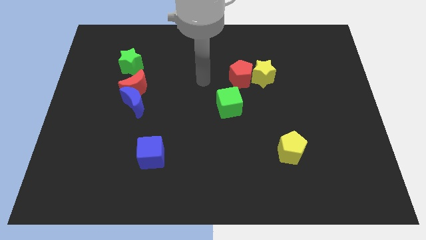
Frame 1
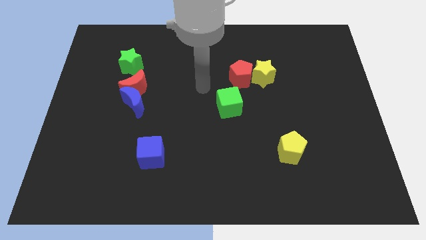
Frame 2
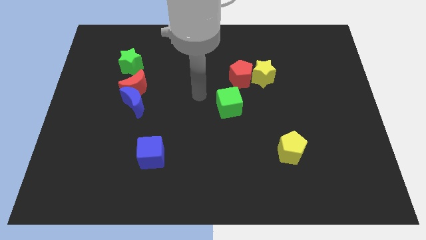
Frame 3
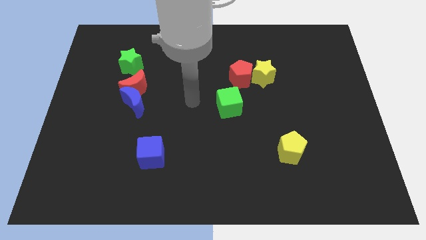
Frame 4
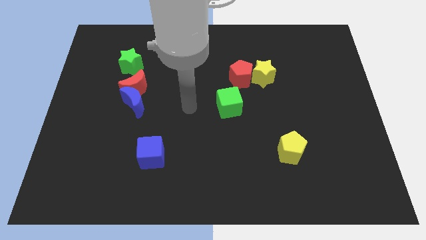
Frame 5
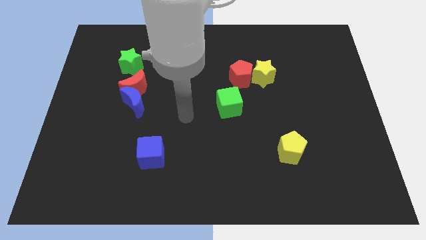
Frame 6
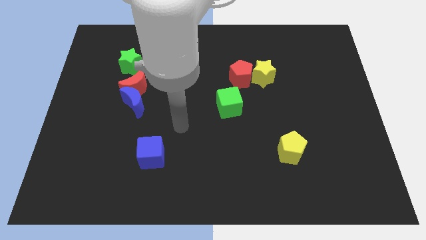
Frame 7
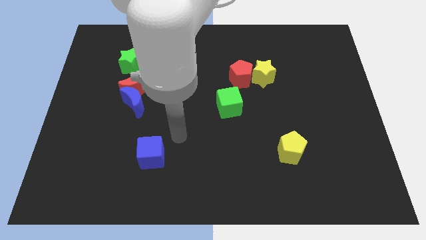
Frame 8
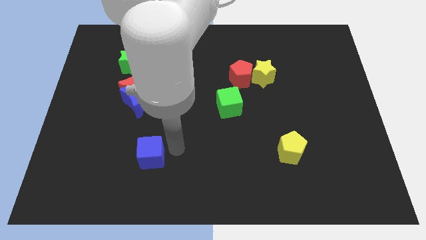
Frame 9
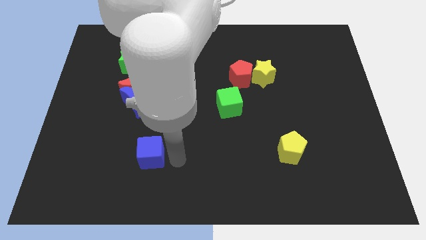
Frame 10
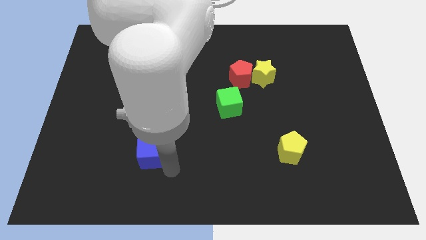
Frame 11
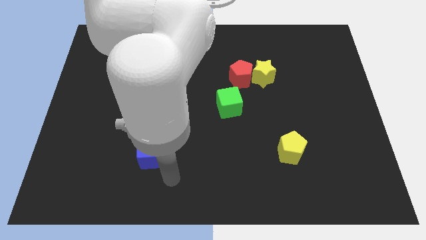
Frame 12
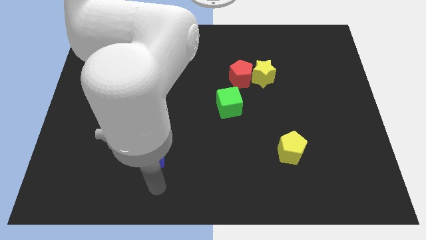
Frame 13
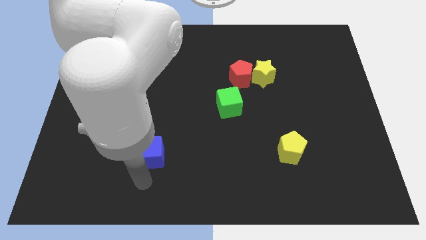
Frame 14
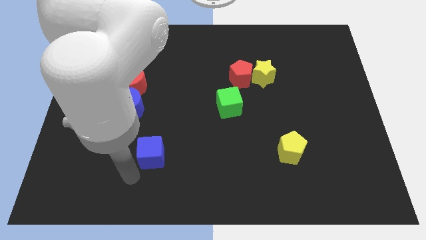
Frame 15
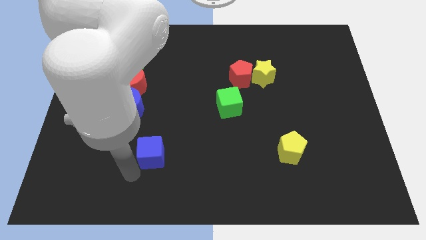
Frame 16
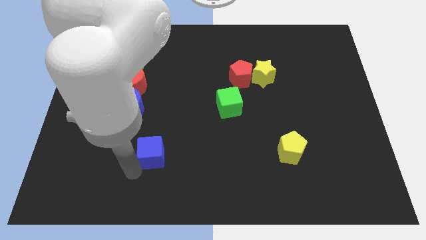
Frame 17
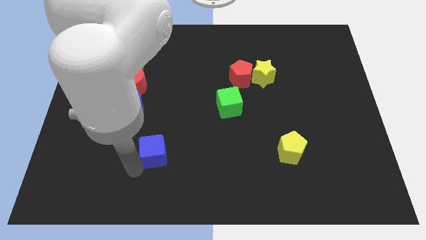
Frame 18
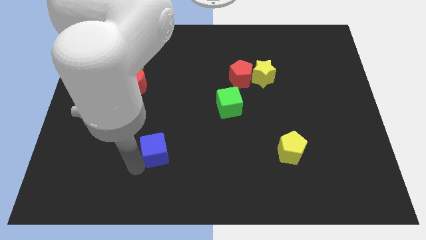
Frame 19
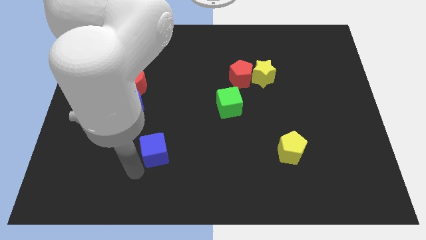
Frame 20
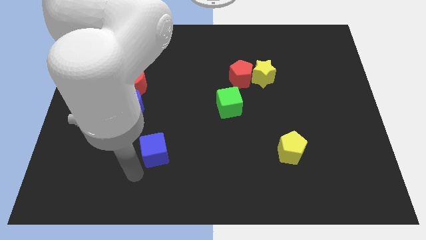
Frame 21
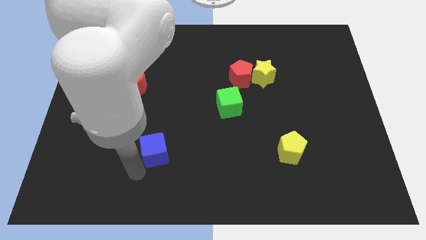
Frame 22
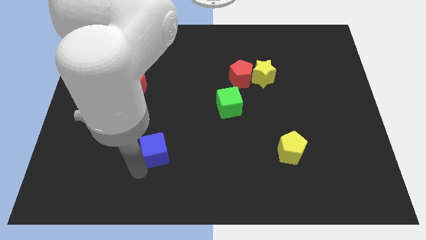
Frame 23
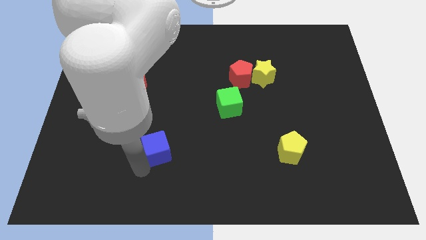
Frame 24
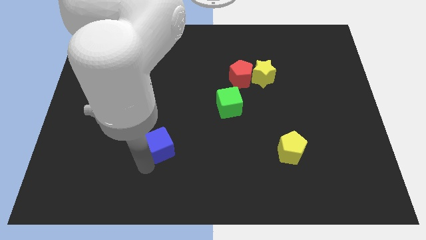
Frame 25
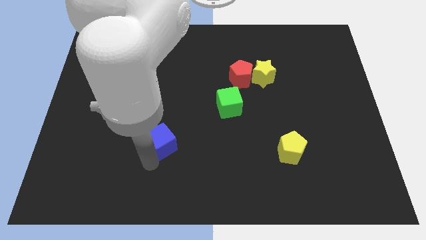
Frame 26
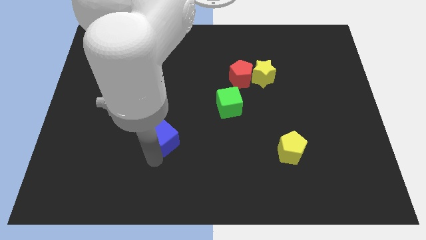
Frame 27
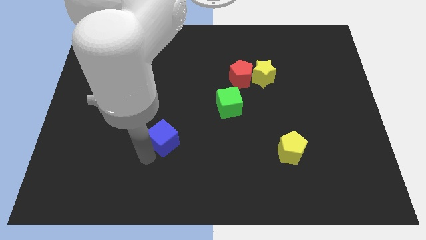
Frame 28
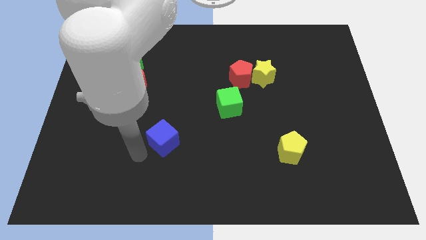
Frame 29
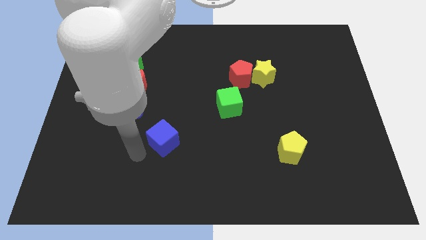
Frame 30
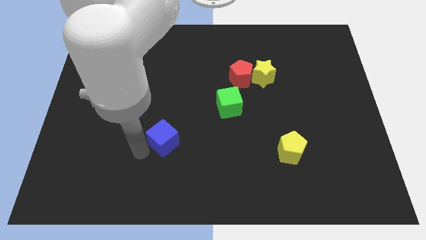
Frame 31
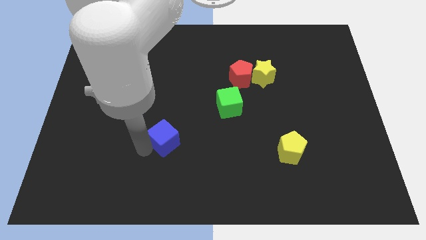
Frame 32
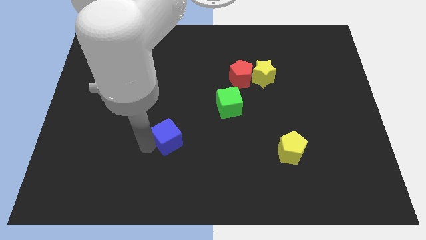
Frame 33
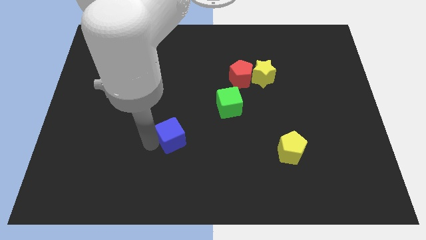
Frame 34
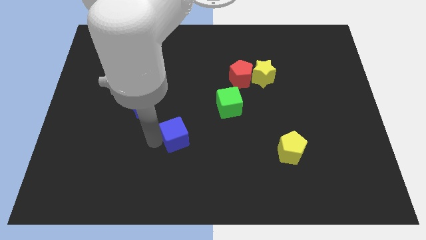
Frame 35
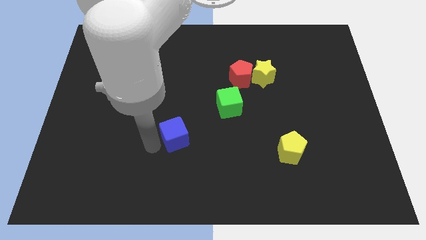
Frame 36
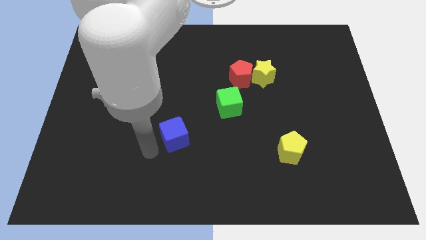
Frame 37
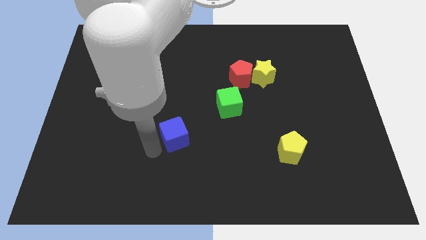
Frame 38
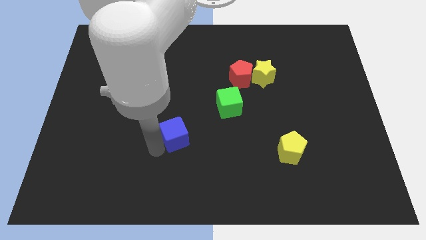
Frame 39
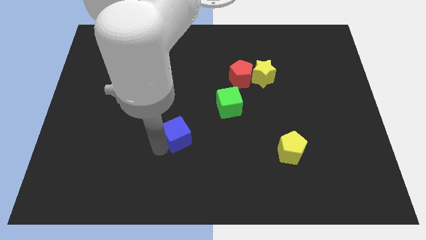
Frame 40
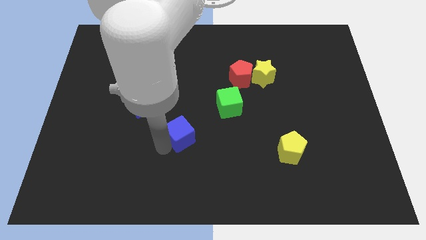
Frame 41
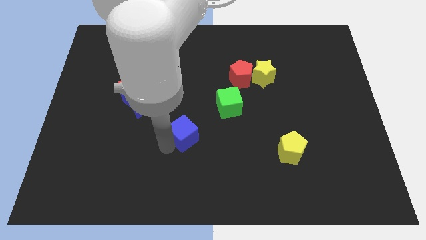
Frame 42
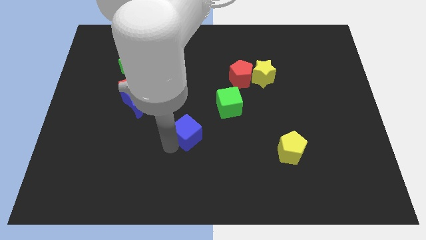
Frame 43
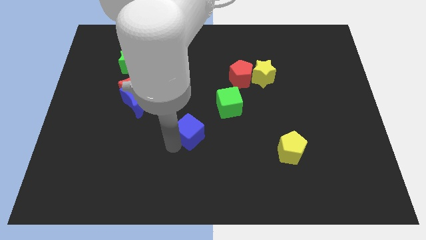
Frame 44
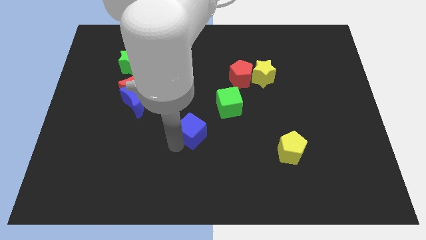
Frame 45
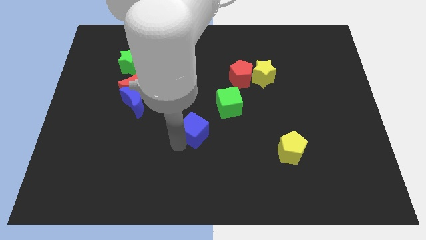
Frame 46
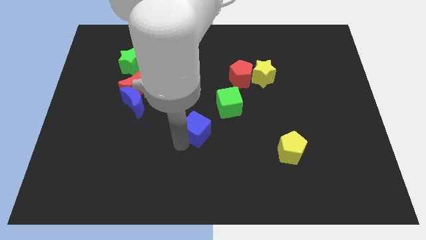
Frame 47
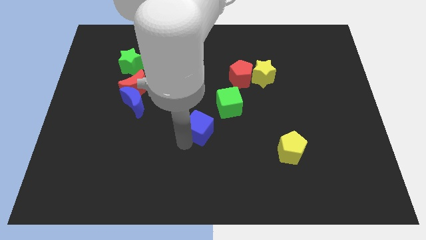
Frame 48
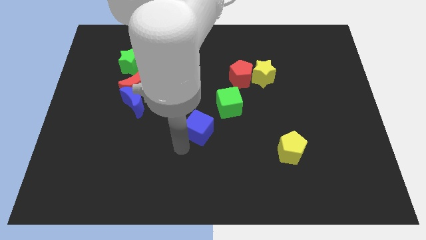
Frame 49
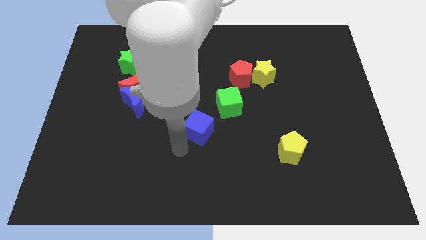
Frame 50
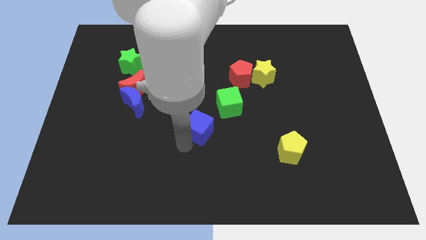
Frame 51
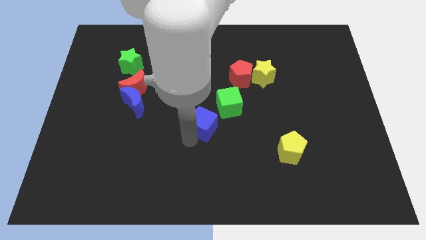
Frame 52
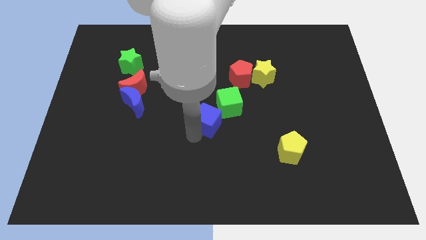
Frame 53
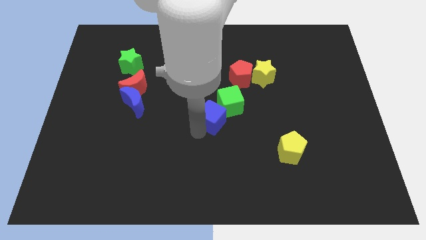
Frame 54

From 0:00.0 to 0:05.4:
move the blue cube next to the green cube

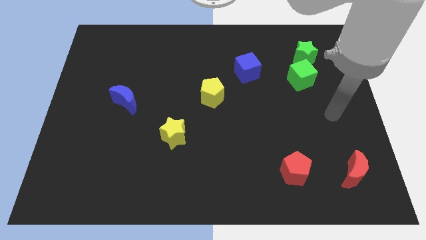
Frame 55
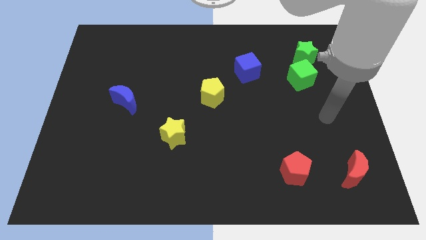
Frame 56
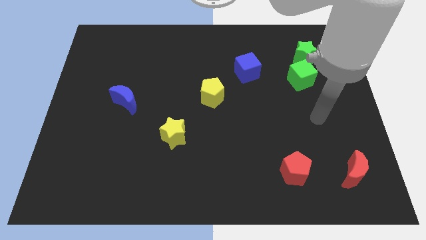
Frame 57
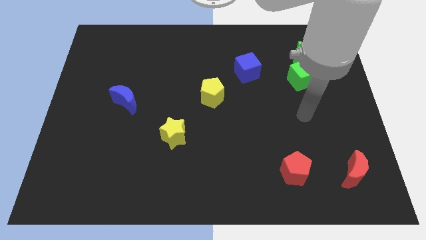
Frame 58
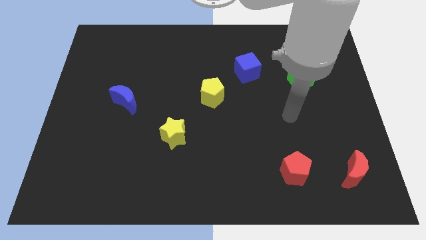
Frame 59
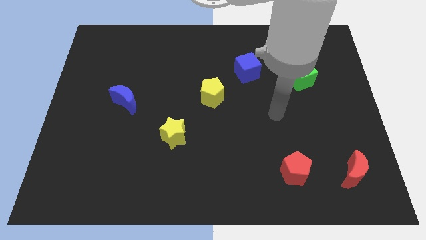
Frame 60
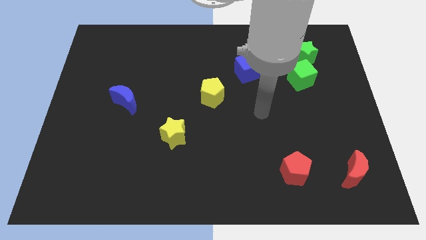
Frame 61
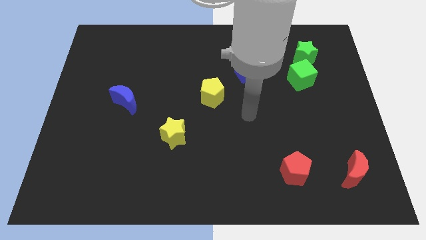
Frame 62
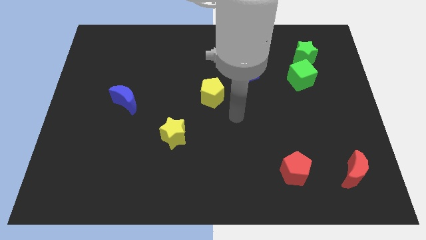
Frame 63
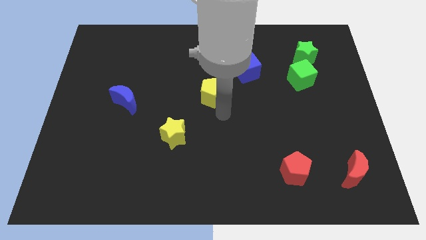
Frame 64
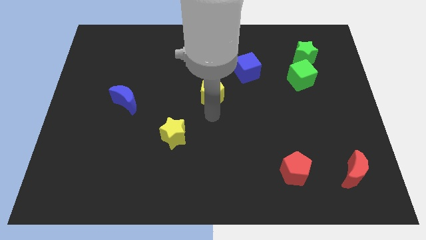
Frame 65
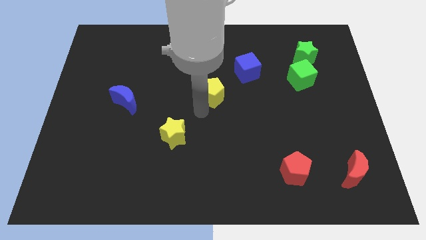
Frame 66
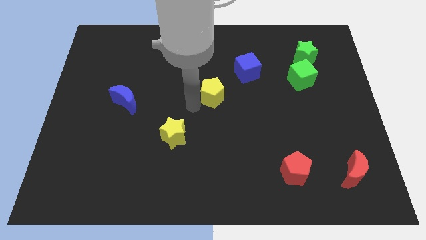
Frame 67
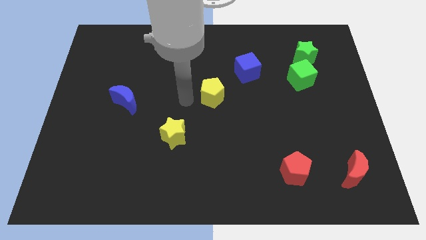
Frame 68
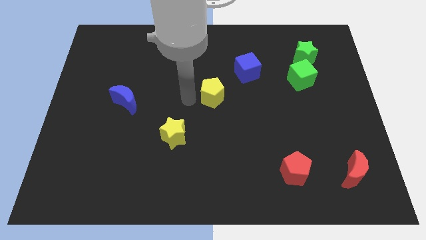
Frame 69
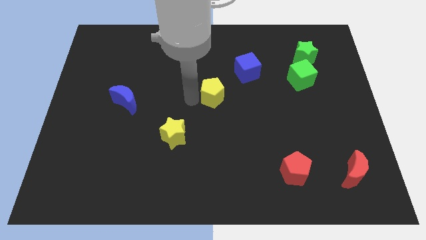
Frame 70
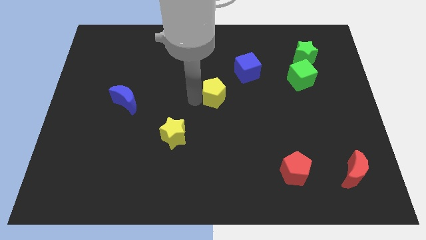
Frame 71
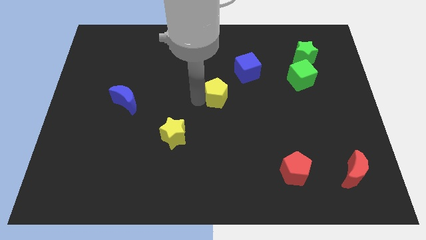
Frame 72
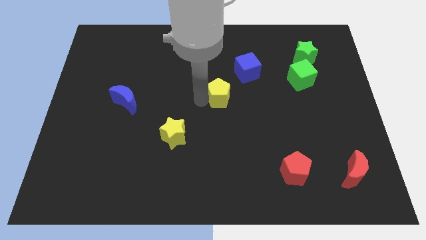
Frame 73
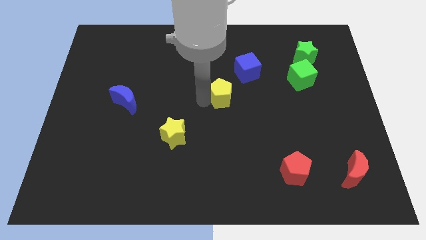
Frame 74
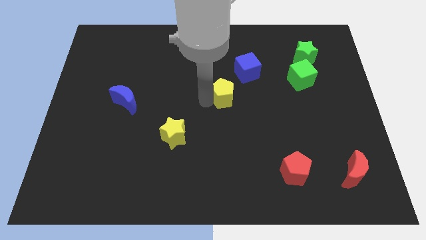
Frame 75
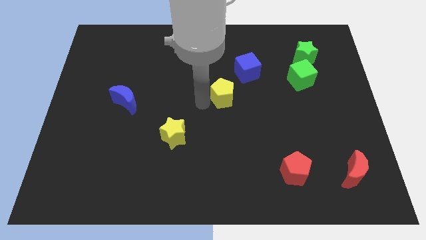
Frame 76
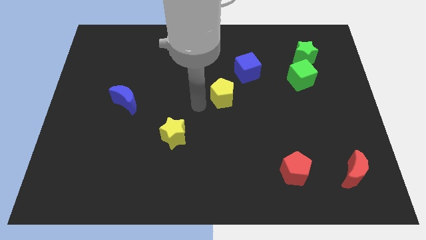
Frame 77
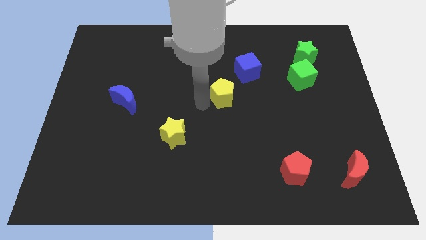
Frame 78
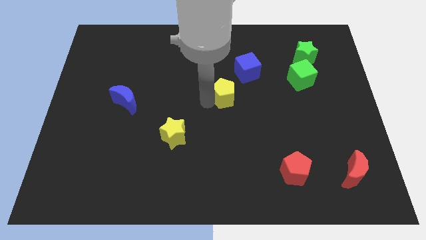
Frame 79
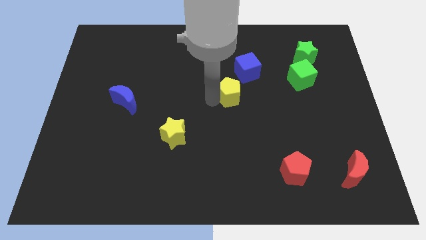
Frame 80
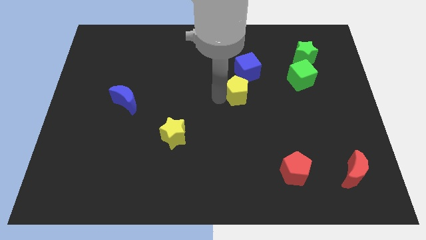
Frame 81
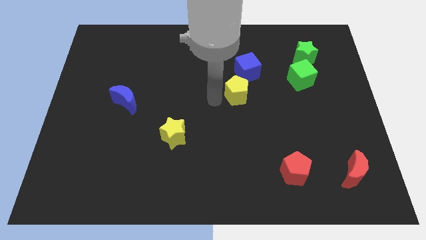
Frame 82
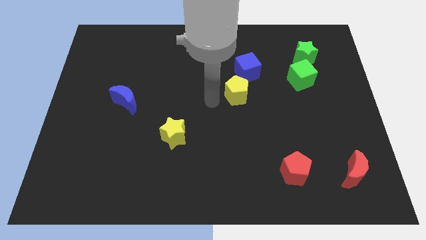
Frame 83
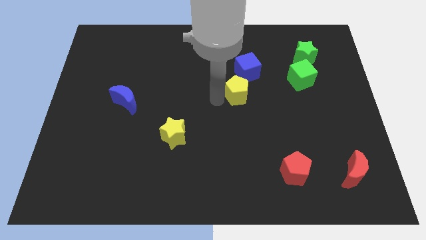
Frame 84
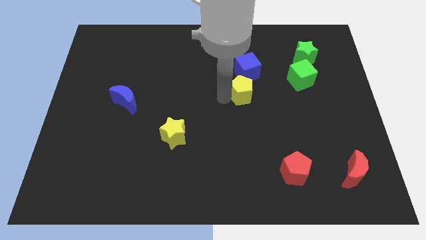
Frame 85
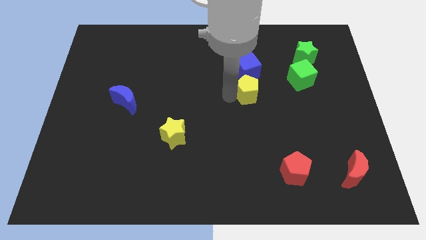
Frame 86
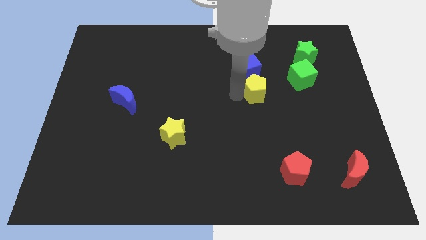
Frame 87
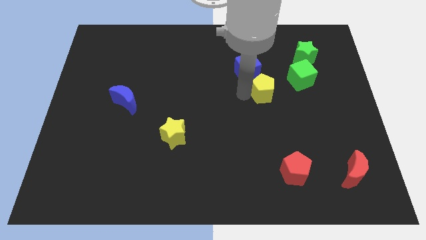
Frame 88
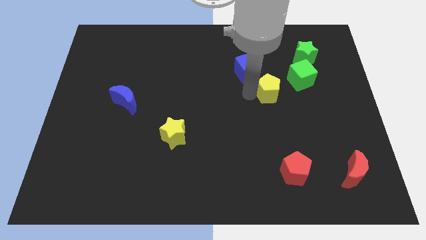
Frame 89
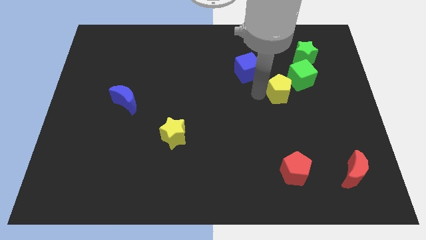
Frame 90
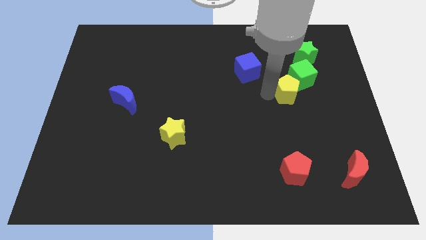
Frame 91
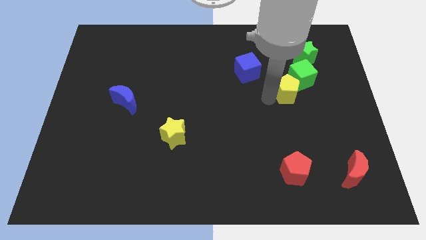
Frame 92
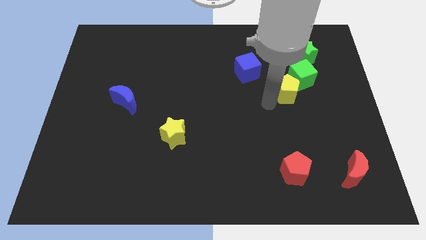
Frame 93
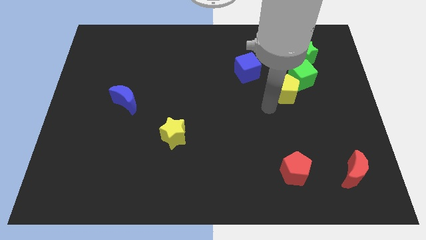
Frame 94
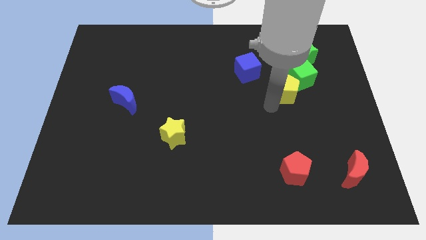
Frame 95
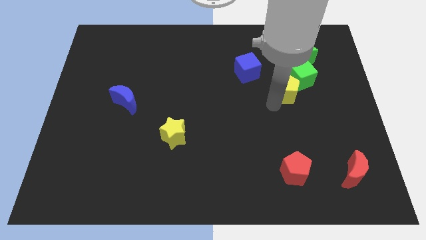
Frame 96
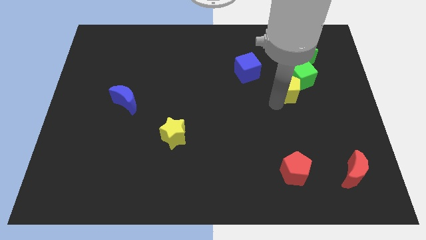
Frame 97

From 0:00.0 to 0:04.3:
push the yellow pentagon close to the green cube
